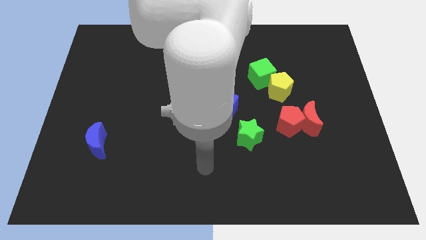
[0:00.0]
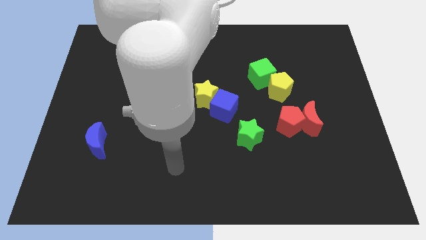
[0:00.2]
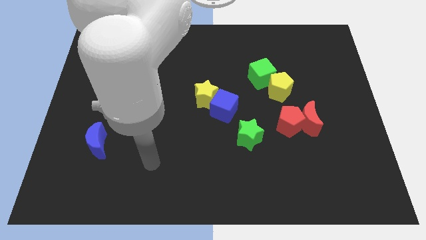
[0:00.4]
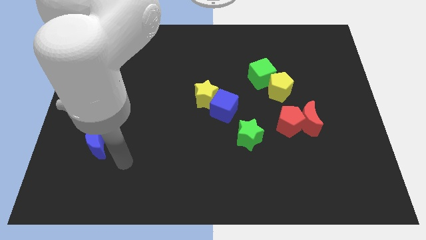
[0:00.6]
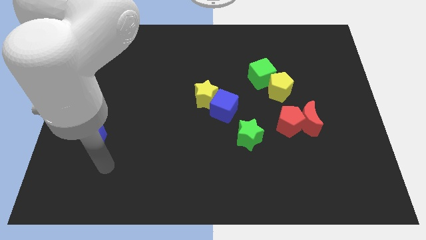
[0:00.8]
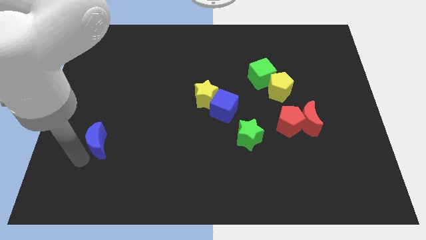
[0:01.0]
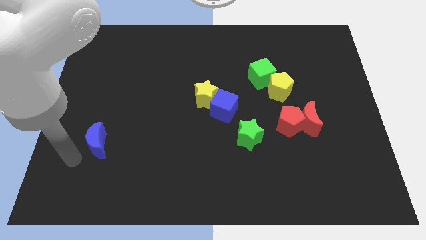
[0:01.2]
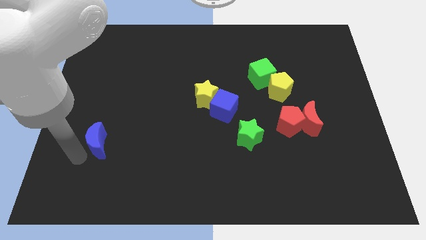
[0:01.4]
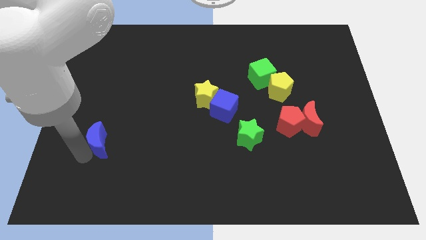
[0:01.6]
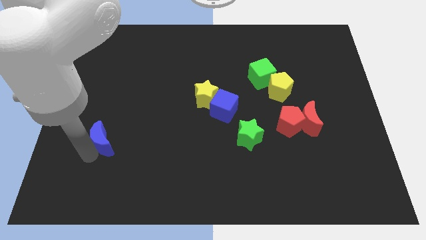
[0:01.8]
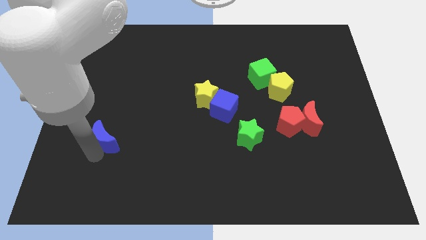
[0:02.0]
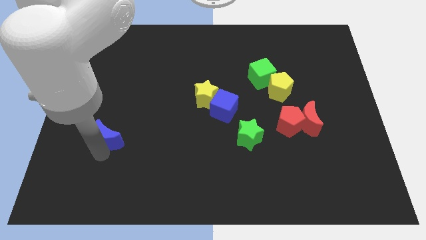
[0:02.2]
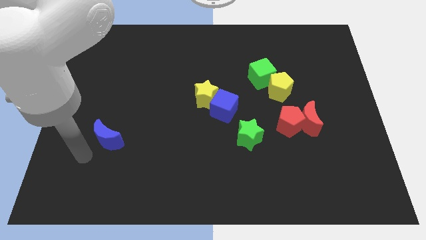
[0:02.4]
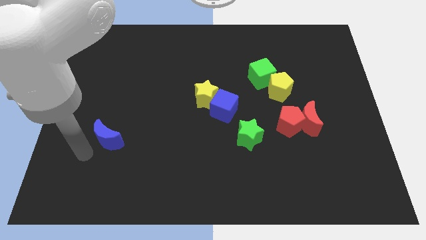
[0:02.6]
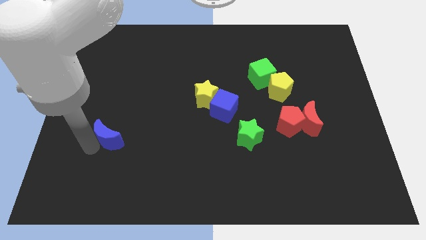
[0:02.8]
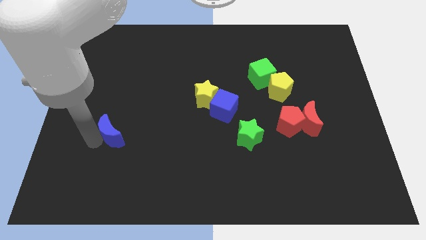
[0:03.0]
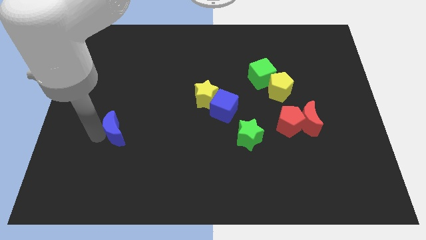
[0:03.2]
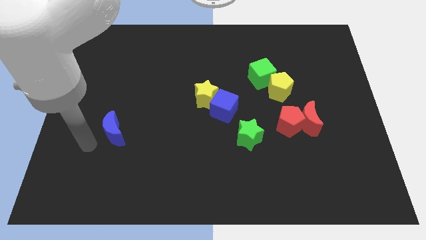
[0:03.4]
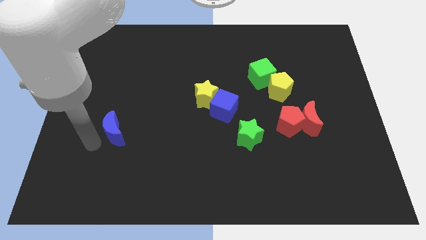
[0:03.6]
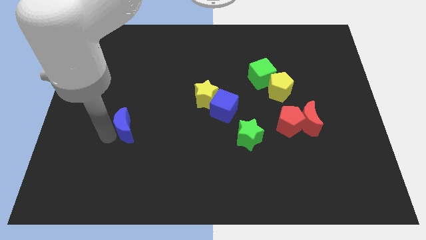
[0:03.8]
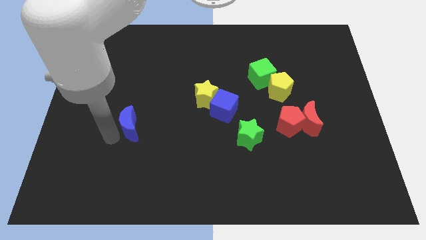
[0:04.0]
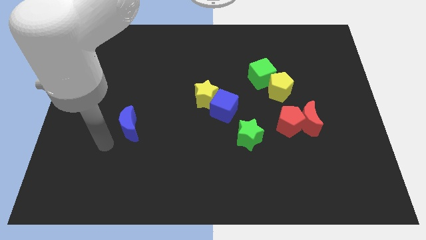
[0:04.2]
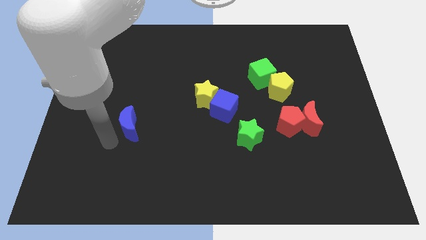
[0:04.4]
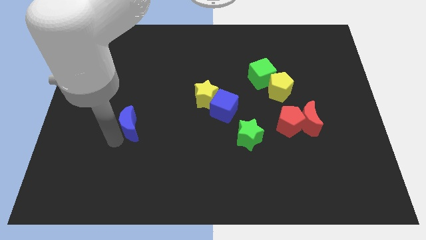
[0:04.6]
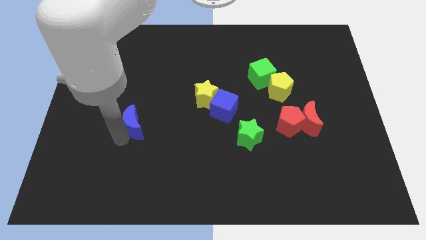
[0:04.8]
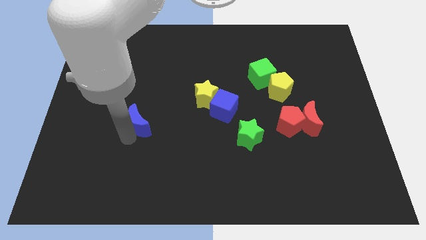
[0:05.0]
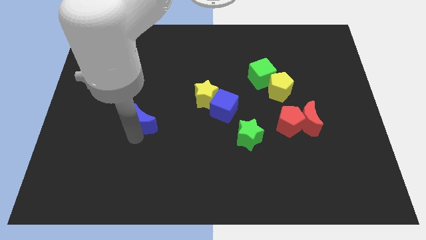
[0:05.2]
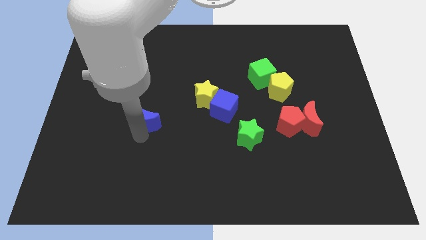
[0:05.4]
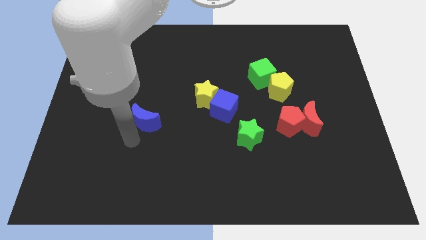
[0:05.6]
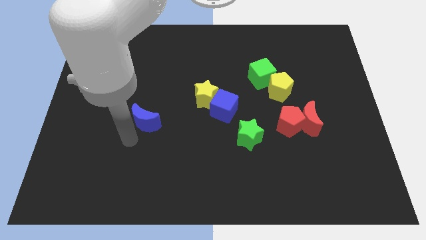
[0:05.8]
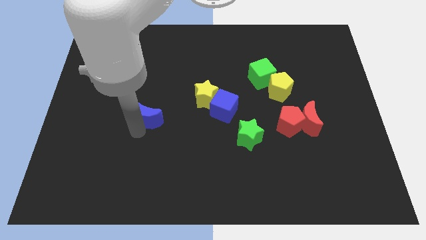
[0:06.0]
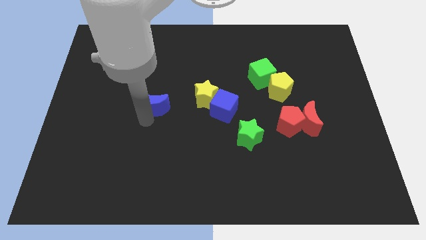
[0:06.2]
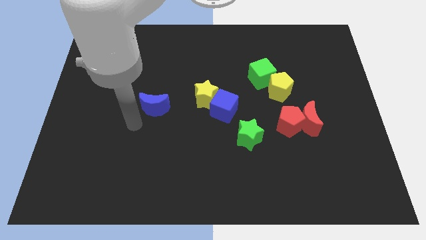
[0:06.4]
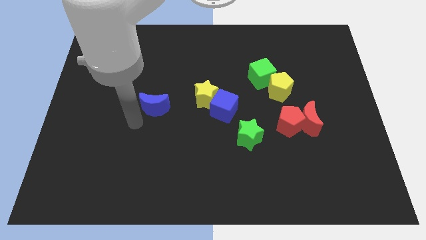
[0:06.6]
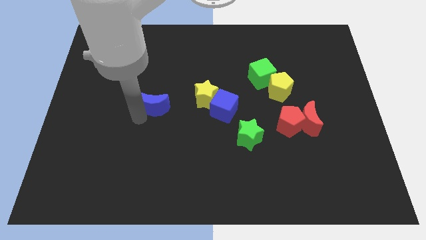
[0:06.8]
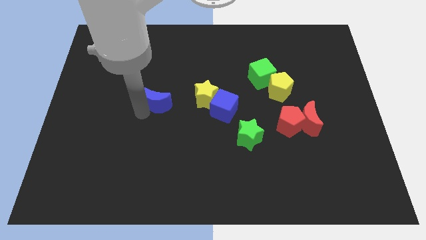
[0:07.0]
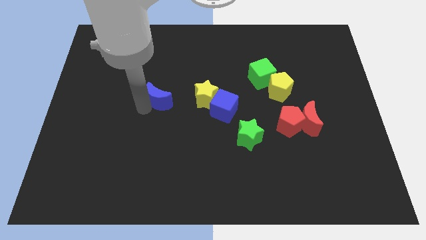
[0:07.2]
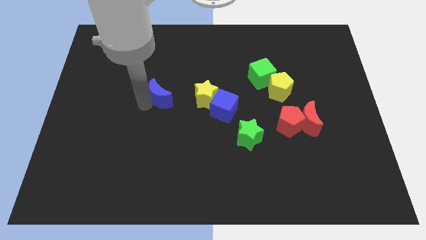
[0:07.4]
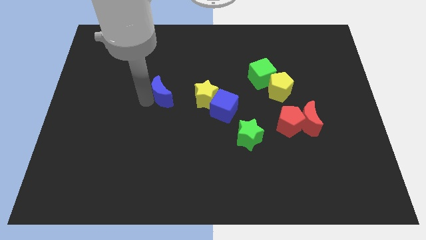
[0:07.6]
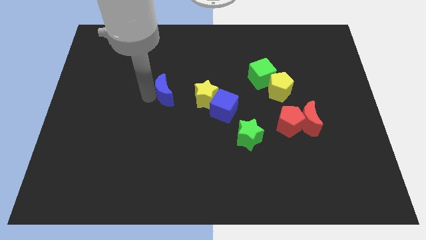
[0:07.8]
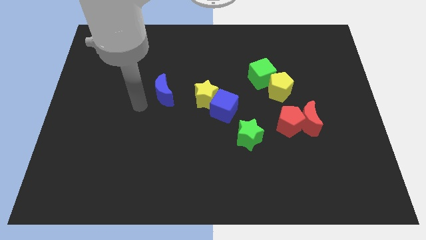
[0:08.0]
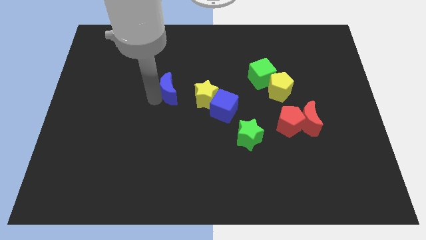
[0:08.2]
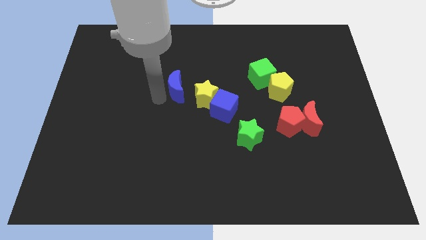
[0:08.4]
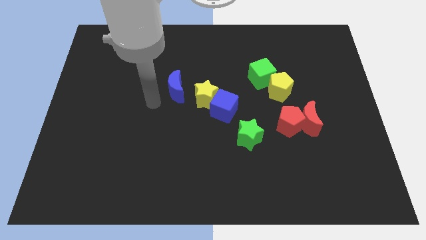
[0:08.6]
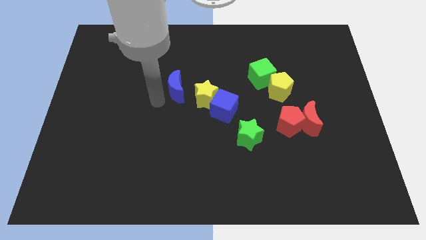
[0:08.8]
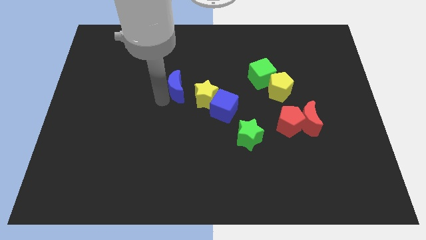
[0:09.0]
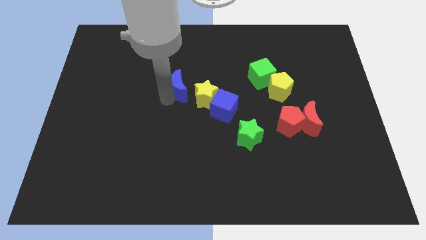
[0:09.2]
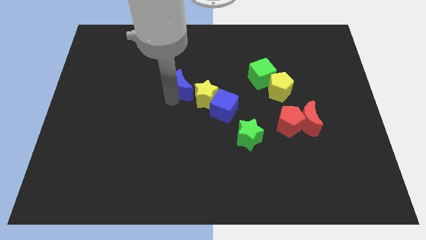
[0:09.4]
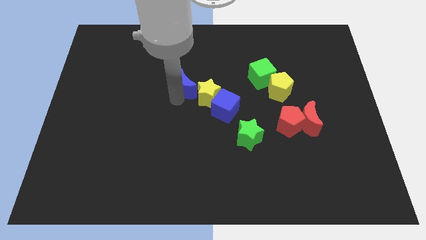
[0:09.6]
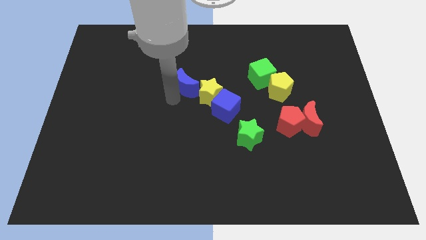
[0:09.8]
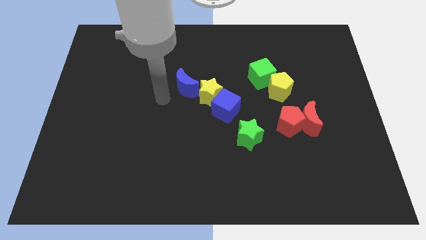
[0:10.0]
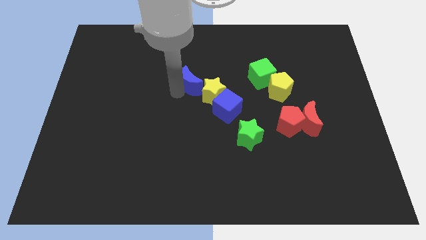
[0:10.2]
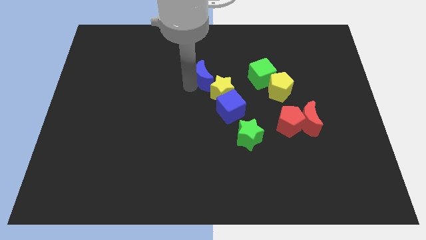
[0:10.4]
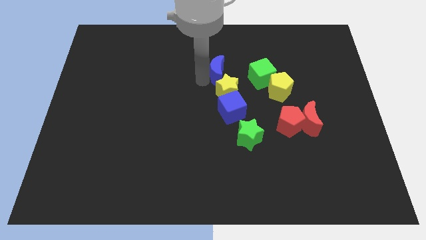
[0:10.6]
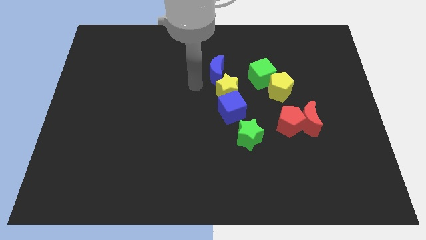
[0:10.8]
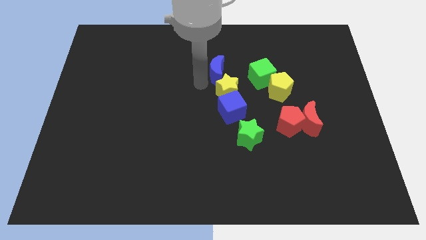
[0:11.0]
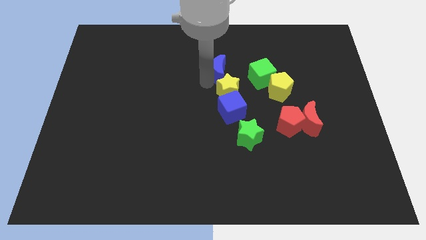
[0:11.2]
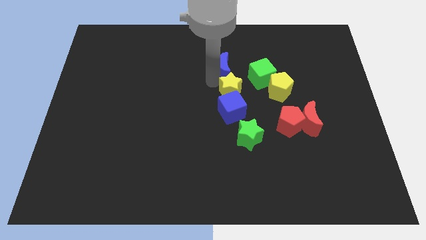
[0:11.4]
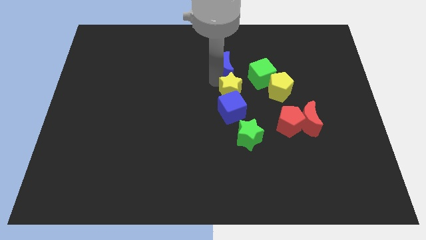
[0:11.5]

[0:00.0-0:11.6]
slide the blue moon to the top left side of the green cube
